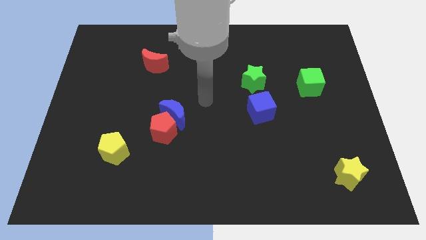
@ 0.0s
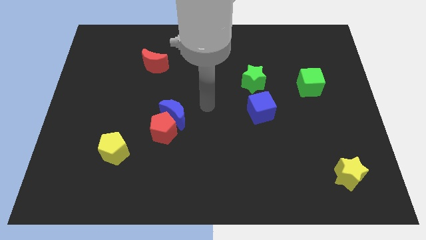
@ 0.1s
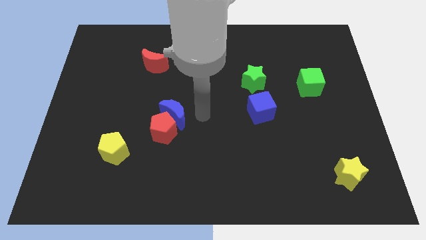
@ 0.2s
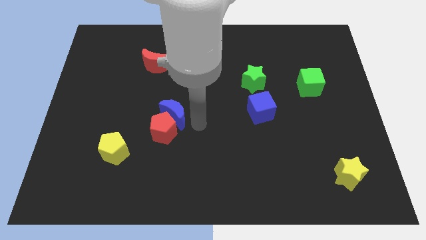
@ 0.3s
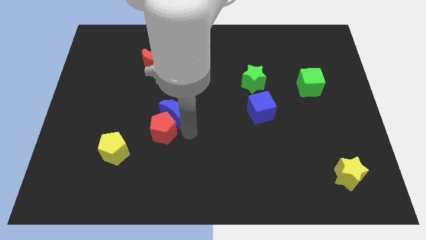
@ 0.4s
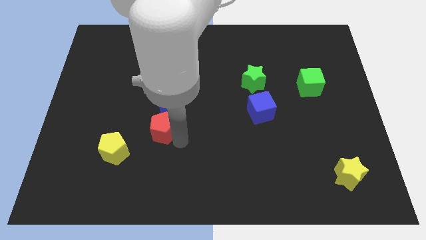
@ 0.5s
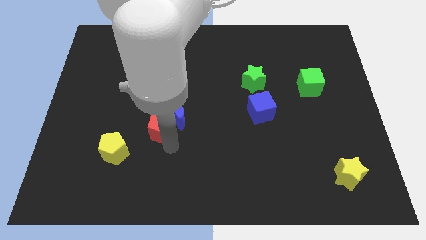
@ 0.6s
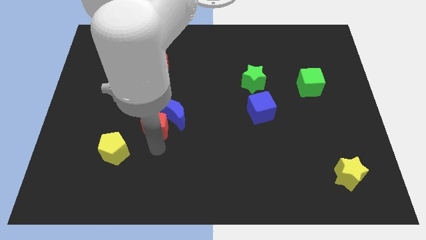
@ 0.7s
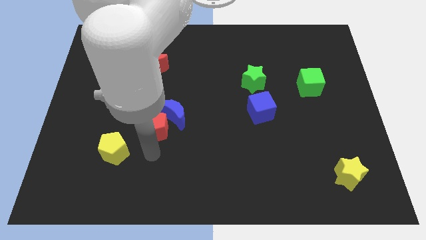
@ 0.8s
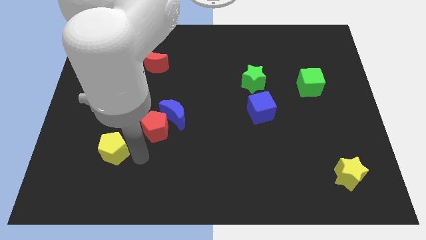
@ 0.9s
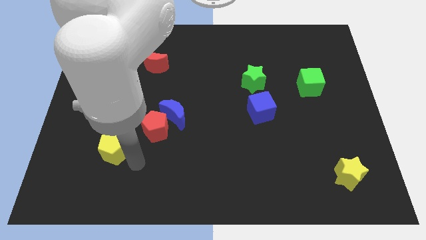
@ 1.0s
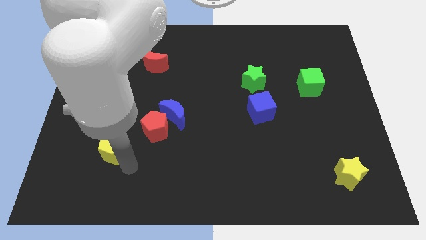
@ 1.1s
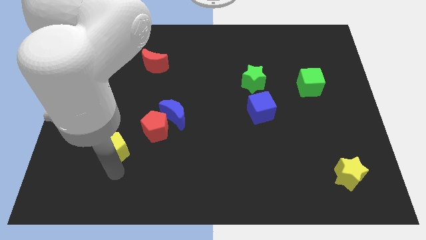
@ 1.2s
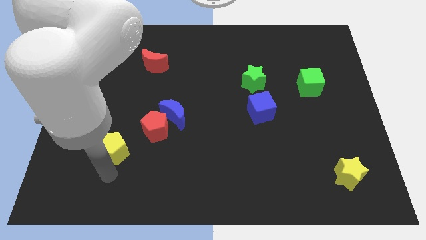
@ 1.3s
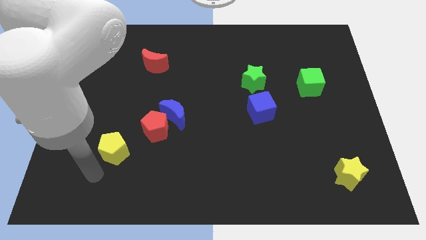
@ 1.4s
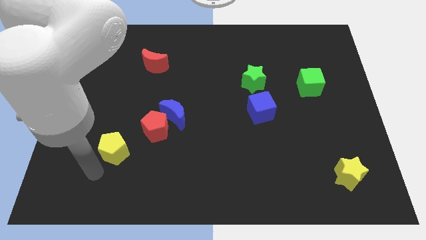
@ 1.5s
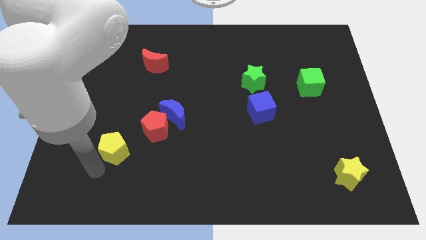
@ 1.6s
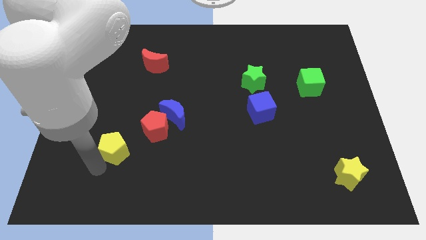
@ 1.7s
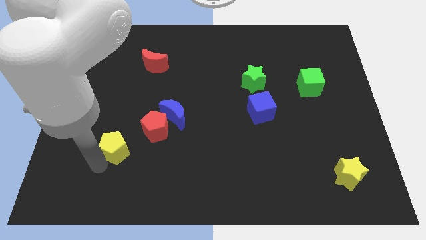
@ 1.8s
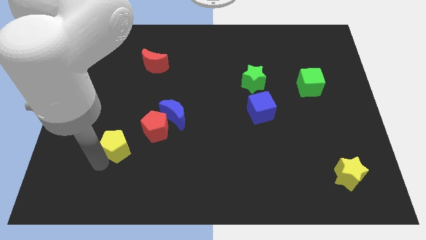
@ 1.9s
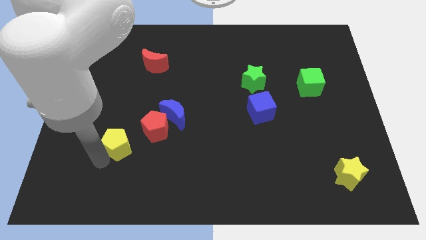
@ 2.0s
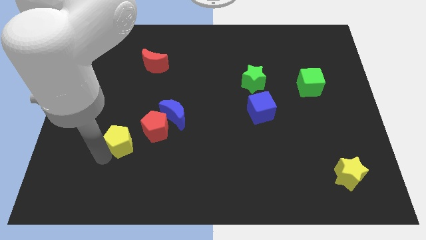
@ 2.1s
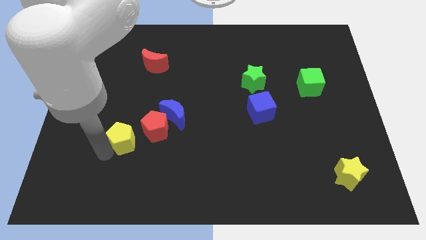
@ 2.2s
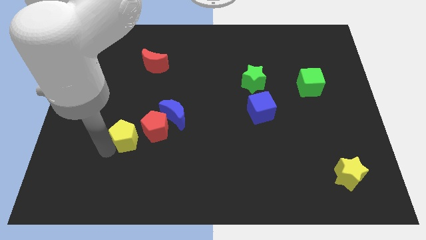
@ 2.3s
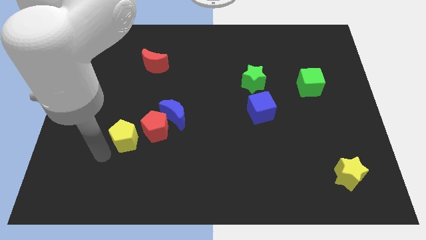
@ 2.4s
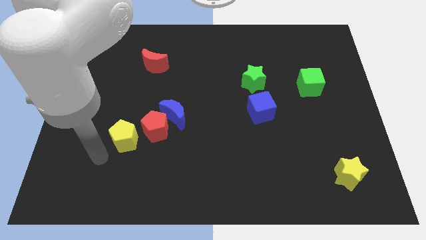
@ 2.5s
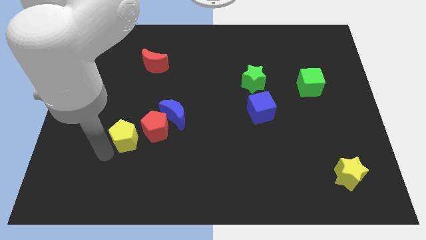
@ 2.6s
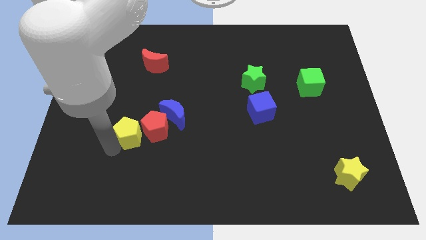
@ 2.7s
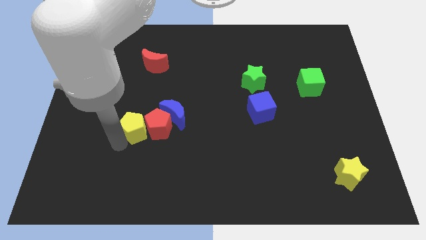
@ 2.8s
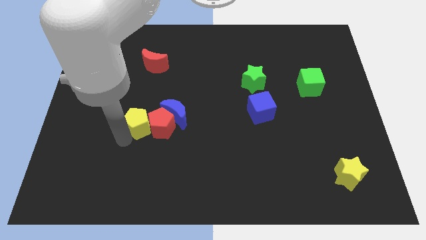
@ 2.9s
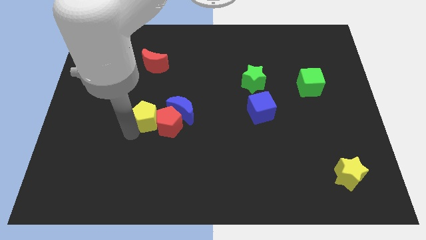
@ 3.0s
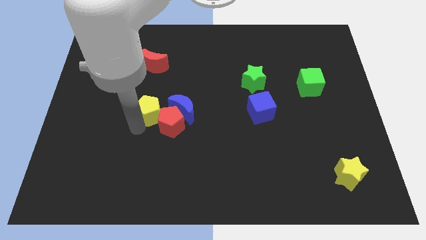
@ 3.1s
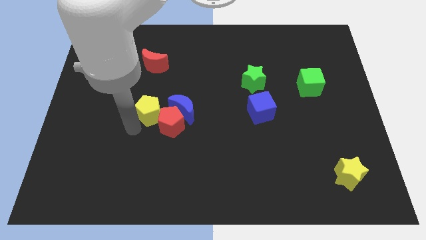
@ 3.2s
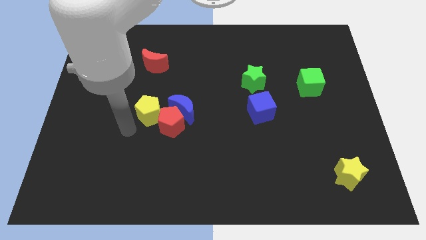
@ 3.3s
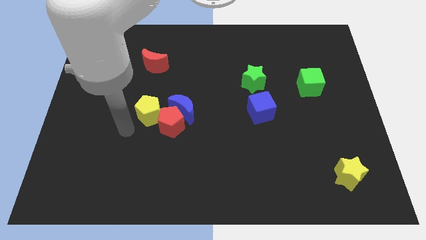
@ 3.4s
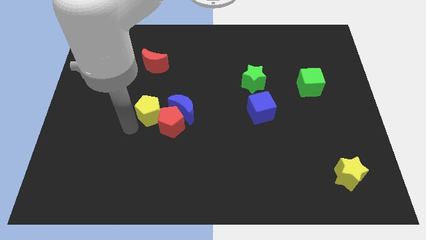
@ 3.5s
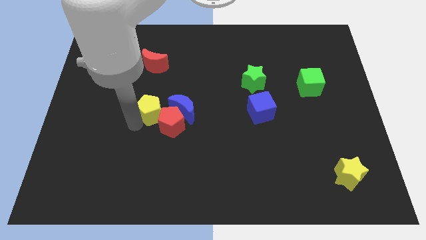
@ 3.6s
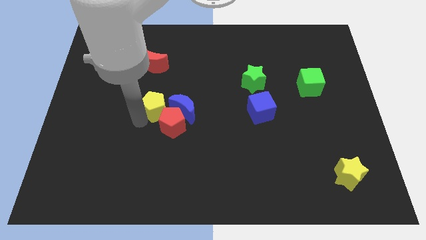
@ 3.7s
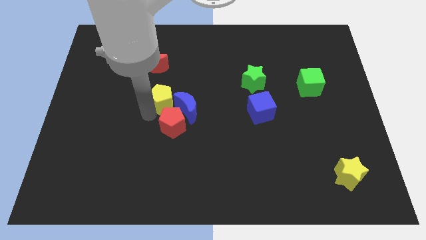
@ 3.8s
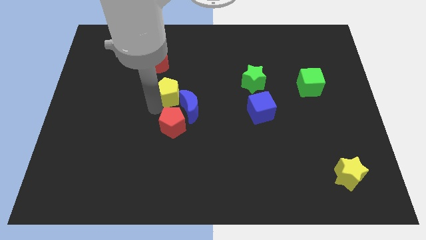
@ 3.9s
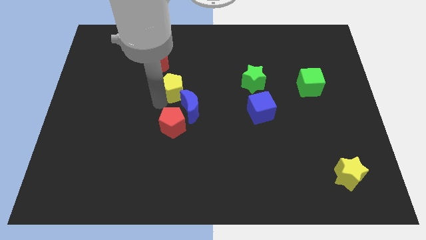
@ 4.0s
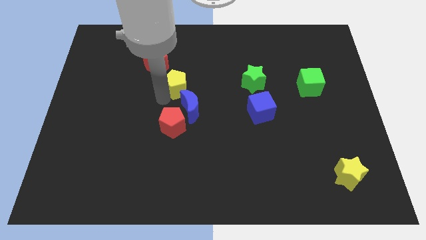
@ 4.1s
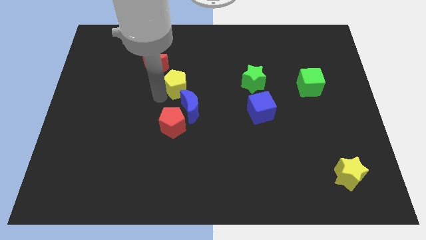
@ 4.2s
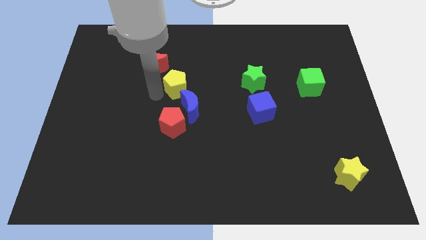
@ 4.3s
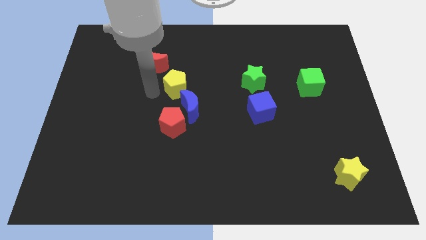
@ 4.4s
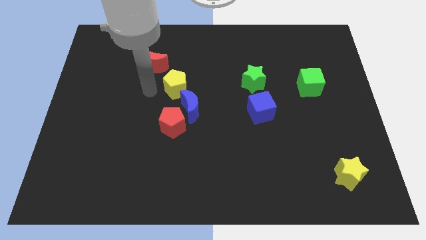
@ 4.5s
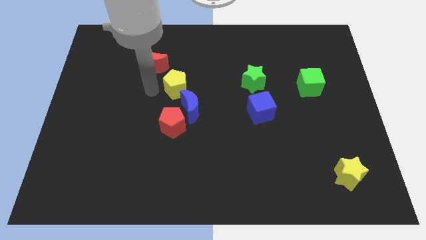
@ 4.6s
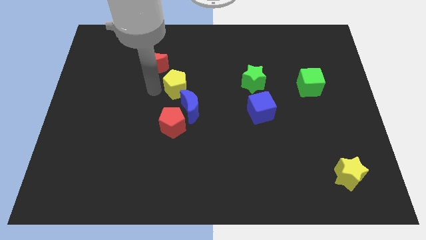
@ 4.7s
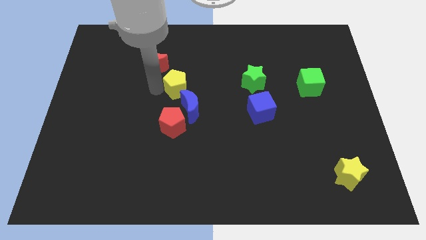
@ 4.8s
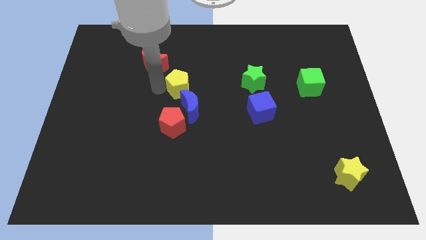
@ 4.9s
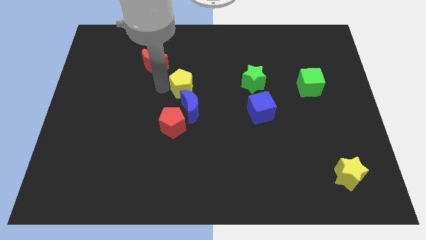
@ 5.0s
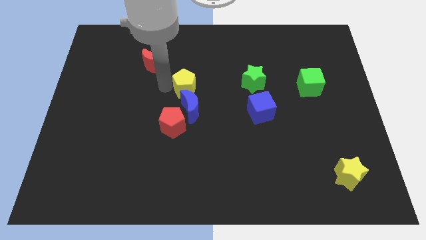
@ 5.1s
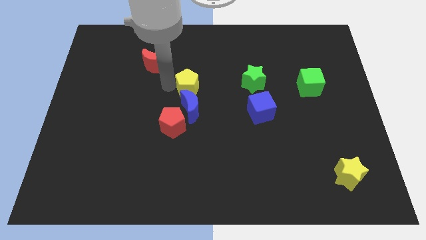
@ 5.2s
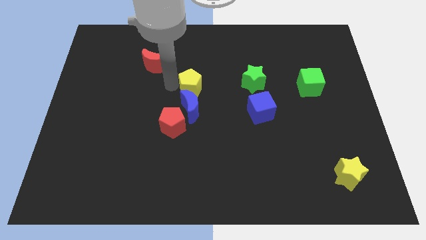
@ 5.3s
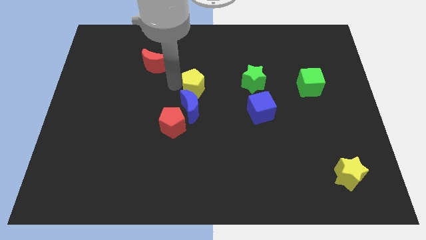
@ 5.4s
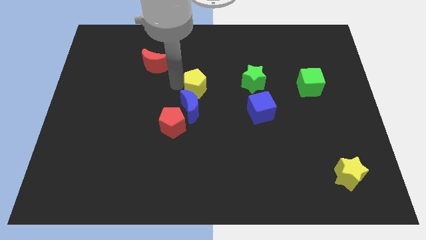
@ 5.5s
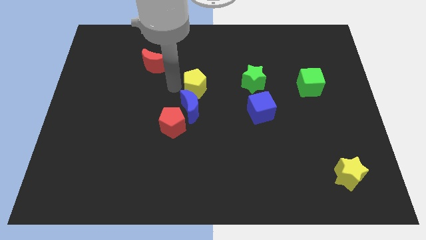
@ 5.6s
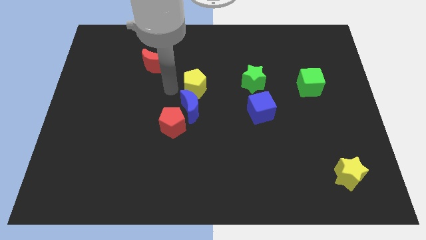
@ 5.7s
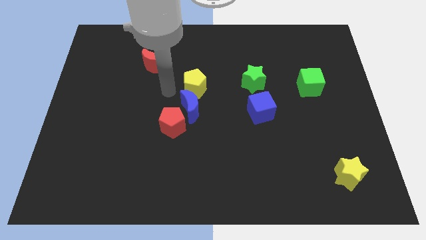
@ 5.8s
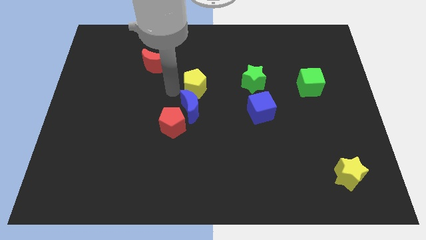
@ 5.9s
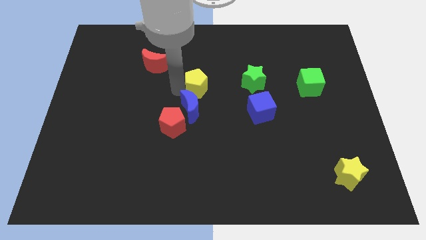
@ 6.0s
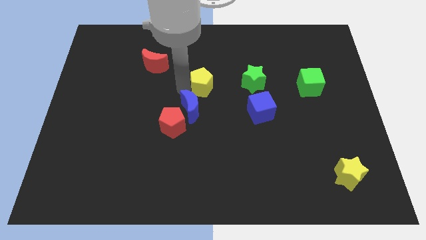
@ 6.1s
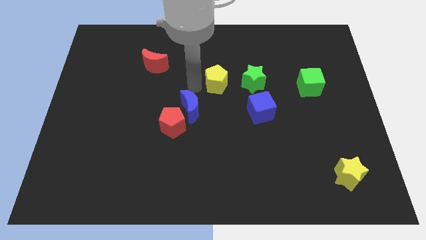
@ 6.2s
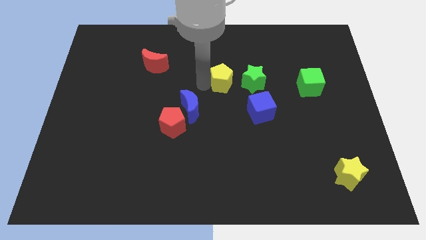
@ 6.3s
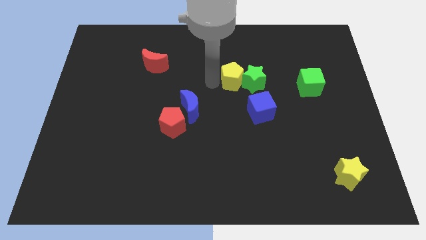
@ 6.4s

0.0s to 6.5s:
put the yellow pentagon to the green star
